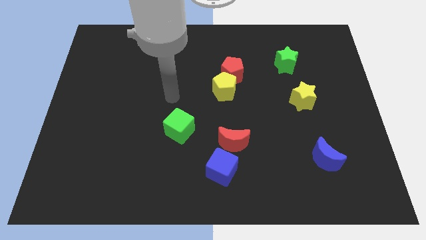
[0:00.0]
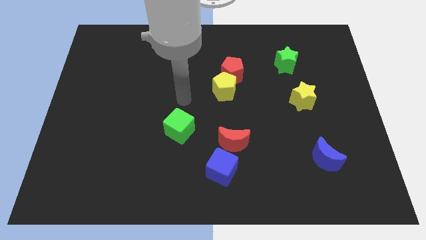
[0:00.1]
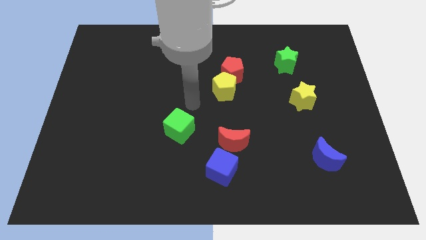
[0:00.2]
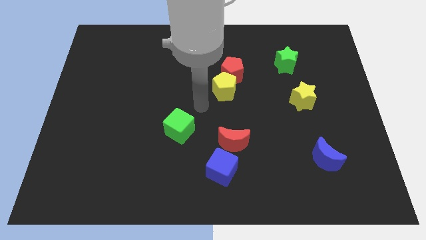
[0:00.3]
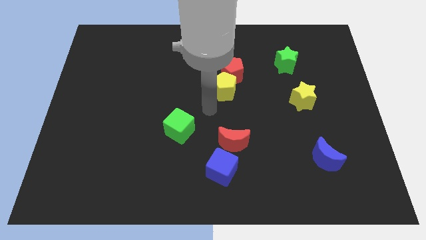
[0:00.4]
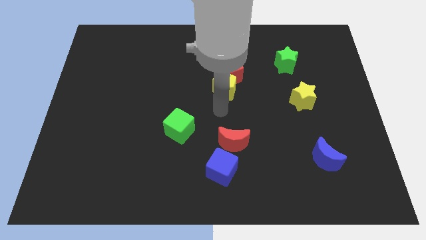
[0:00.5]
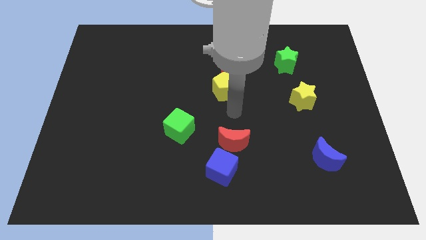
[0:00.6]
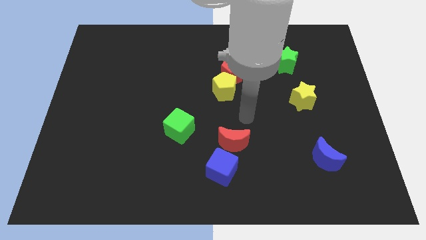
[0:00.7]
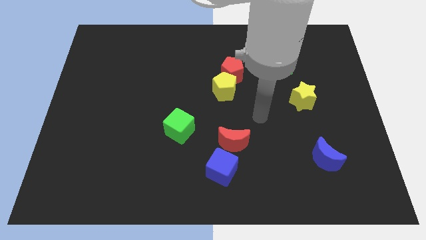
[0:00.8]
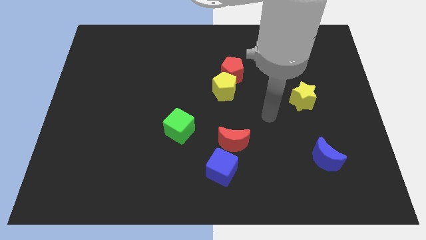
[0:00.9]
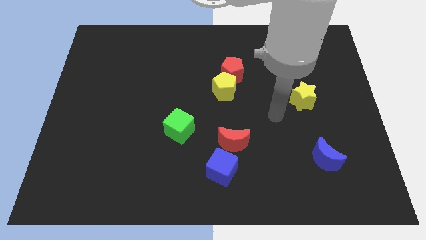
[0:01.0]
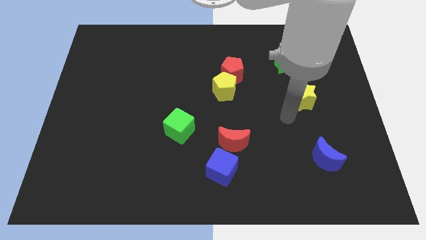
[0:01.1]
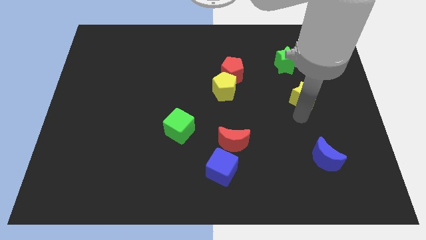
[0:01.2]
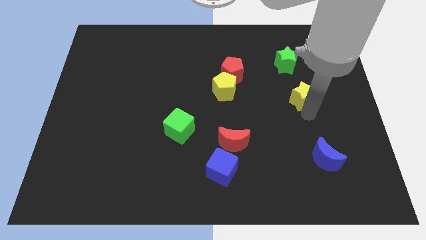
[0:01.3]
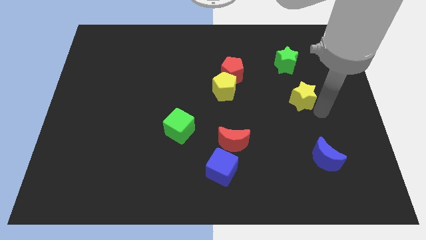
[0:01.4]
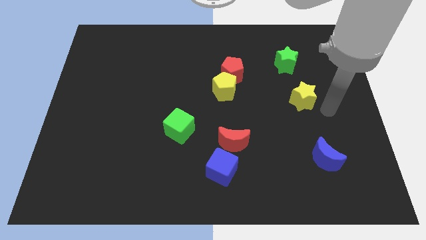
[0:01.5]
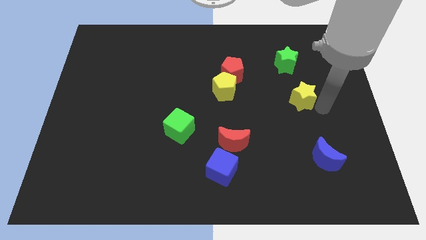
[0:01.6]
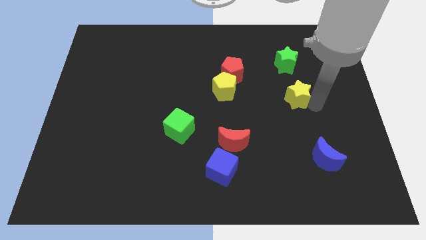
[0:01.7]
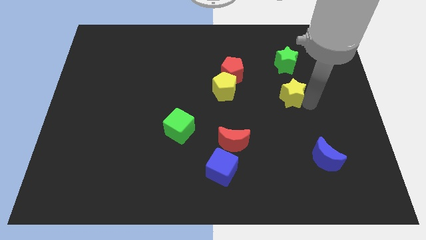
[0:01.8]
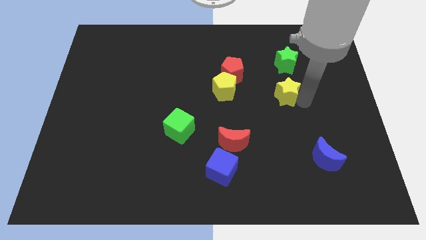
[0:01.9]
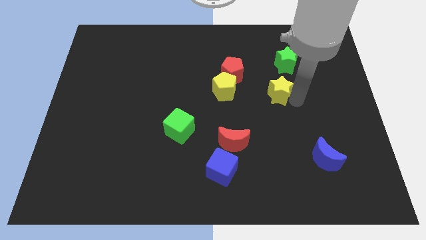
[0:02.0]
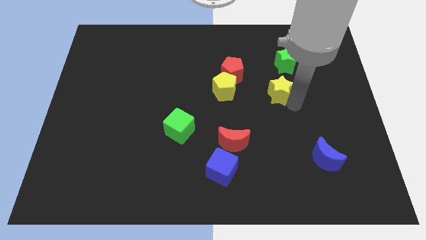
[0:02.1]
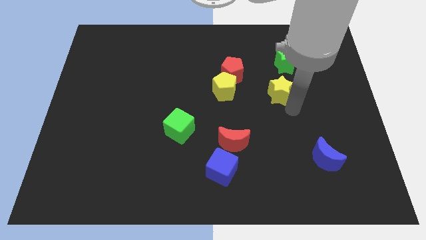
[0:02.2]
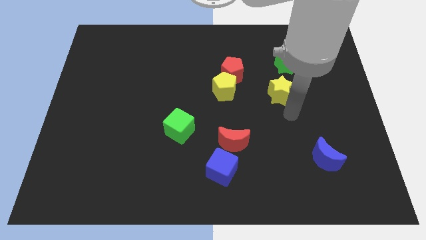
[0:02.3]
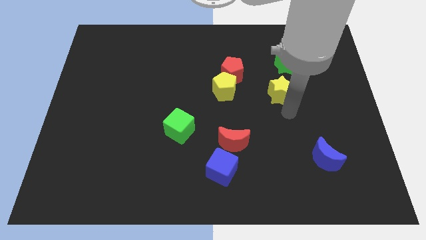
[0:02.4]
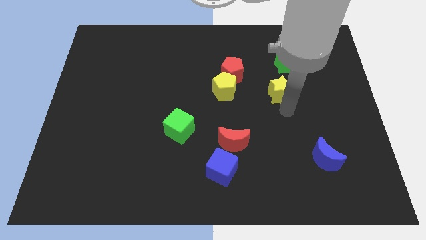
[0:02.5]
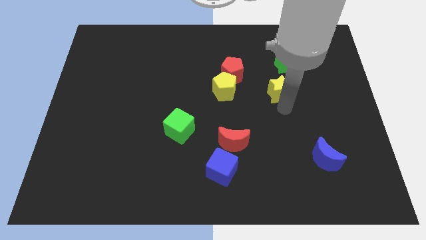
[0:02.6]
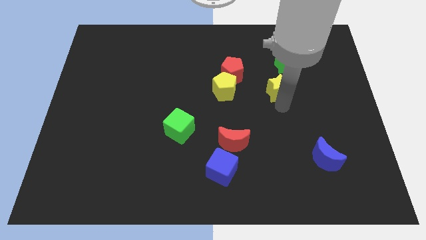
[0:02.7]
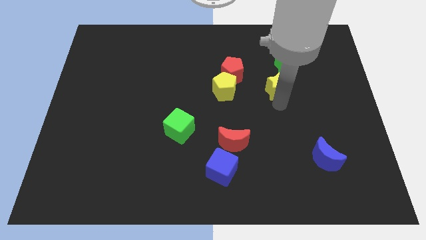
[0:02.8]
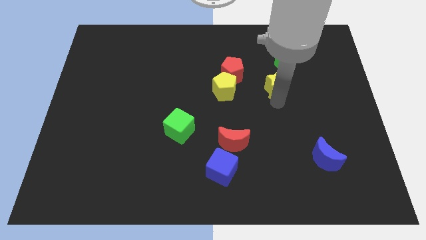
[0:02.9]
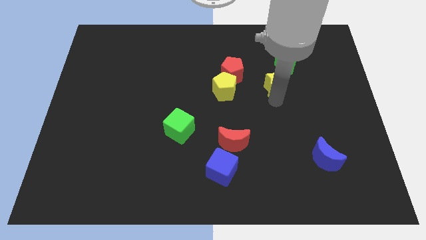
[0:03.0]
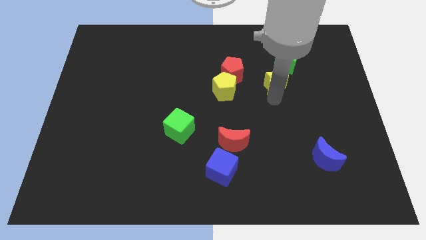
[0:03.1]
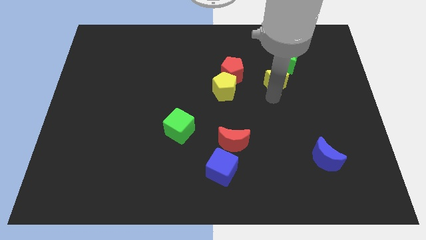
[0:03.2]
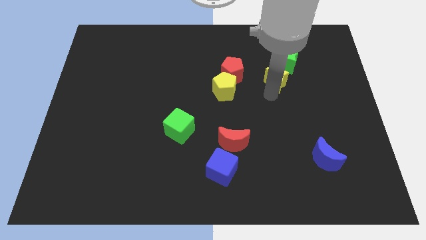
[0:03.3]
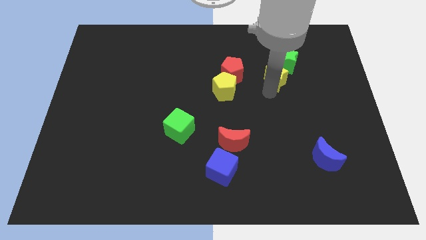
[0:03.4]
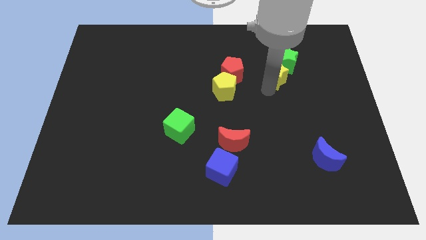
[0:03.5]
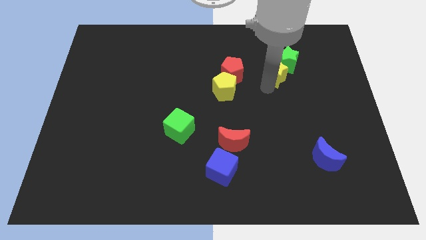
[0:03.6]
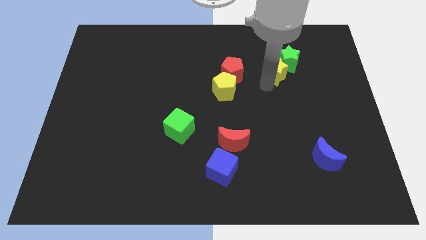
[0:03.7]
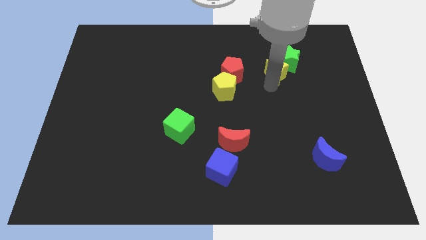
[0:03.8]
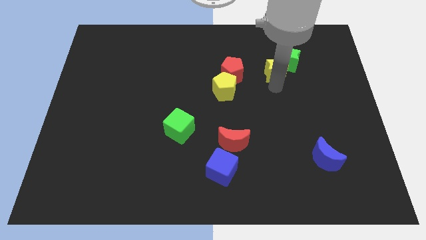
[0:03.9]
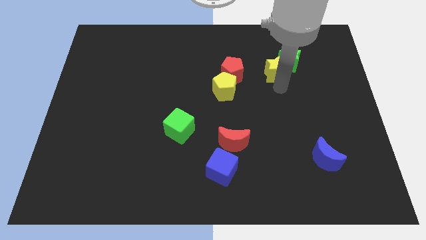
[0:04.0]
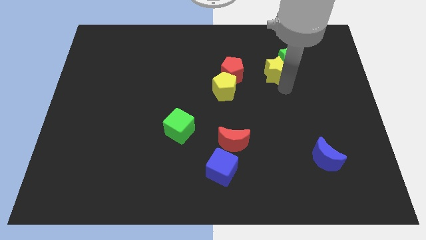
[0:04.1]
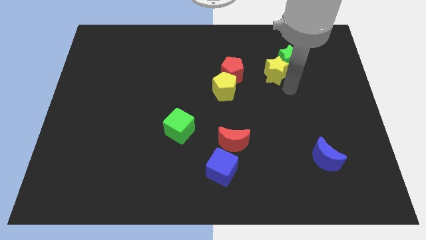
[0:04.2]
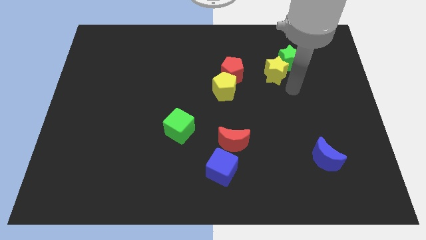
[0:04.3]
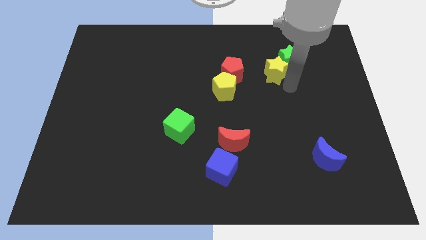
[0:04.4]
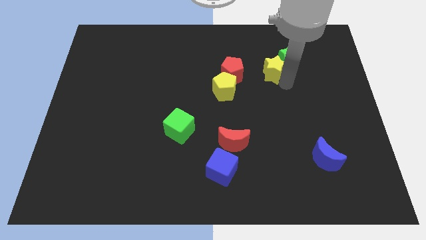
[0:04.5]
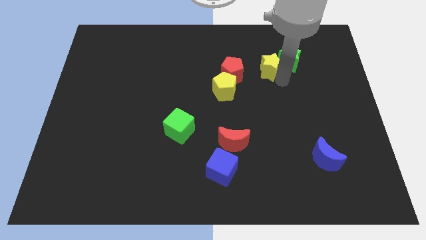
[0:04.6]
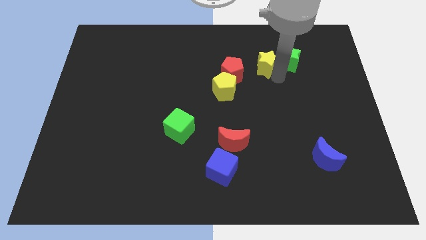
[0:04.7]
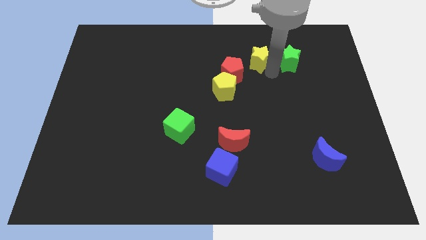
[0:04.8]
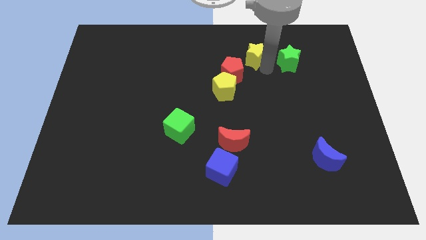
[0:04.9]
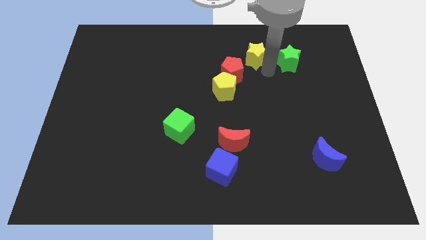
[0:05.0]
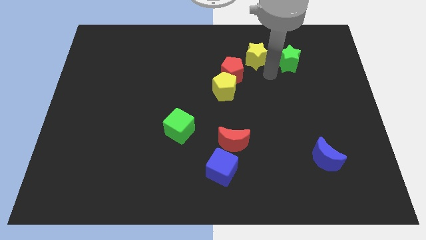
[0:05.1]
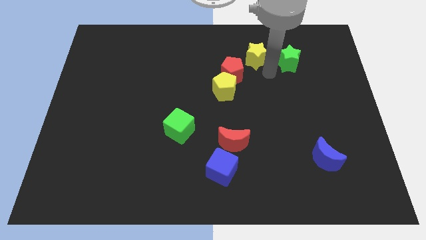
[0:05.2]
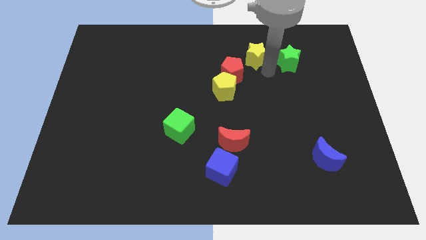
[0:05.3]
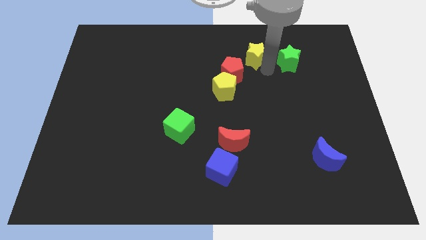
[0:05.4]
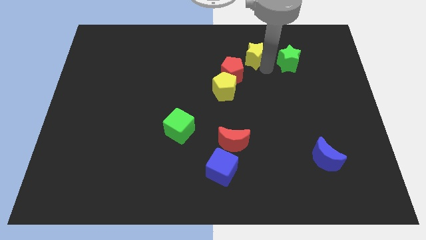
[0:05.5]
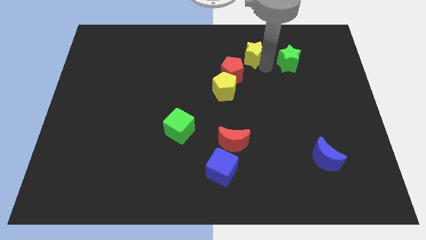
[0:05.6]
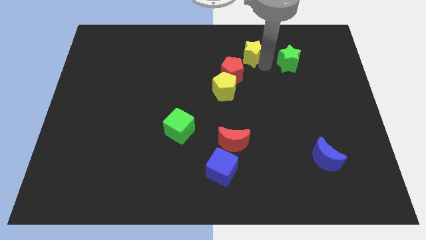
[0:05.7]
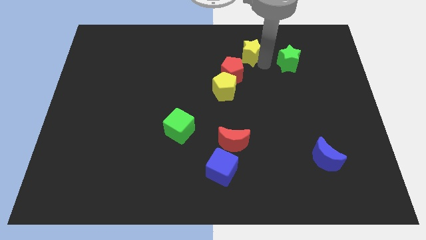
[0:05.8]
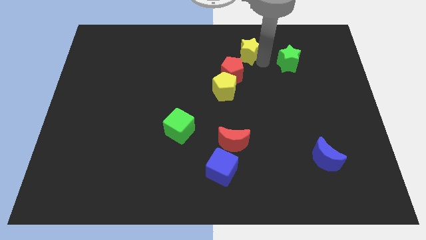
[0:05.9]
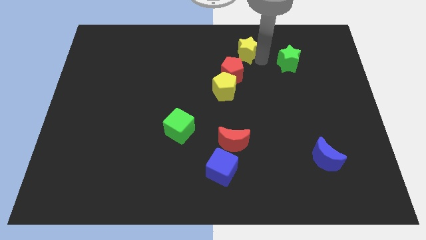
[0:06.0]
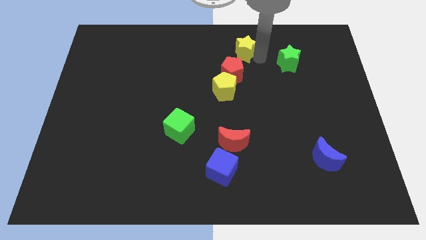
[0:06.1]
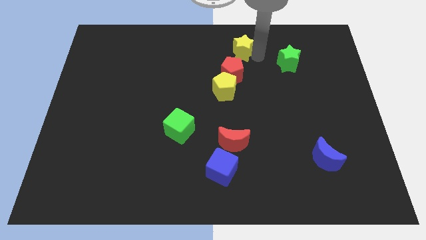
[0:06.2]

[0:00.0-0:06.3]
move the yellow star to the towards your base
